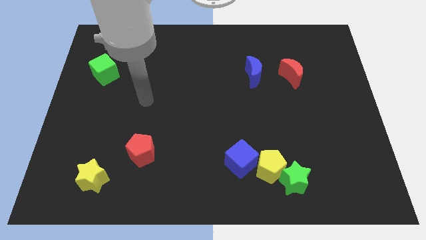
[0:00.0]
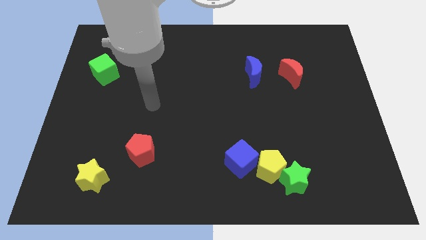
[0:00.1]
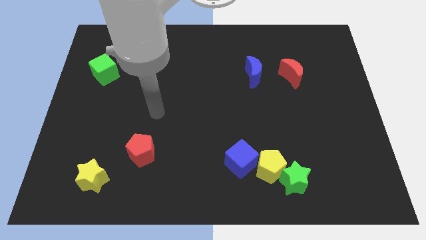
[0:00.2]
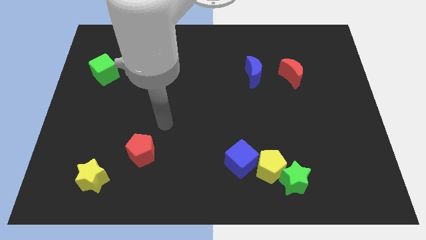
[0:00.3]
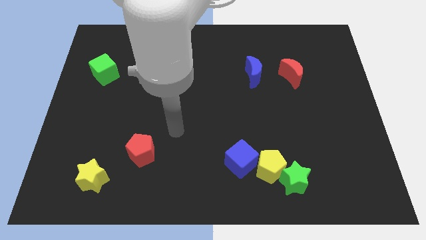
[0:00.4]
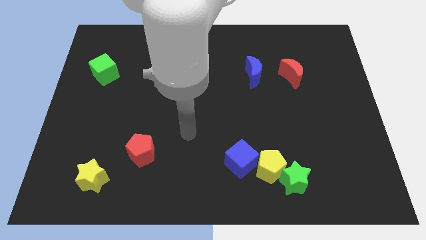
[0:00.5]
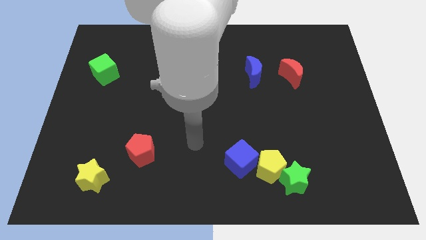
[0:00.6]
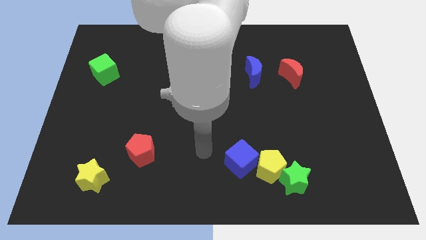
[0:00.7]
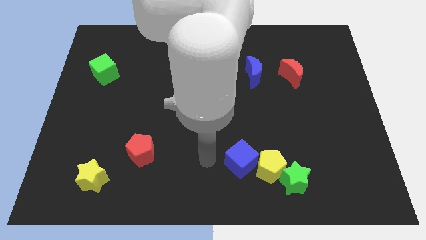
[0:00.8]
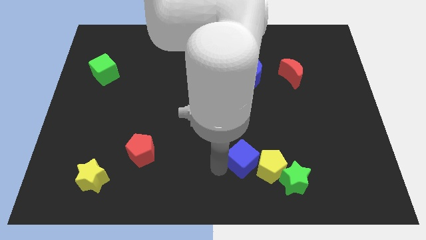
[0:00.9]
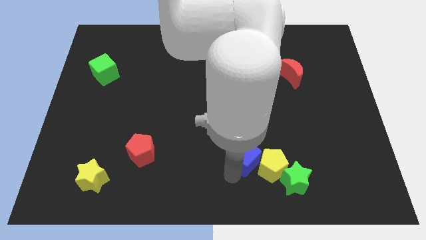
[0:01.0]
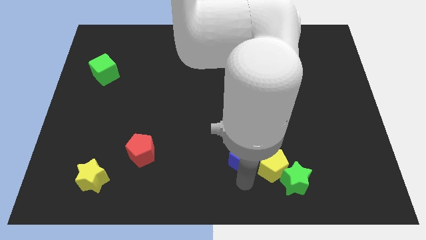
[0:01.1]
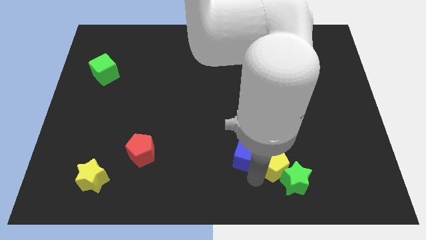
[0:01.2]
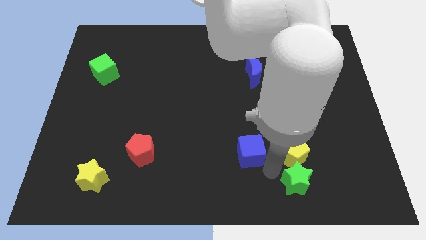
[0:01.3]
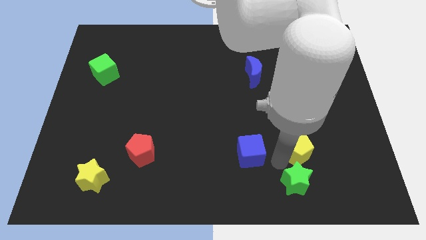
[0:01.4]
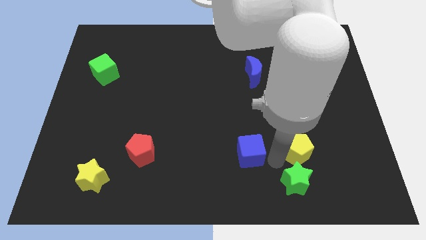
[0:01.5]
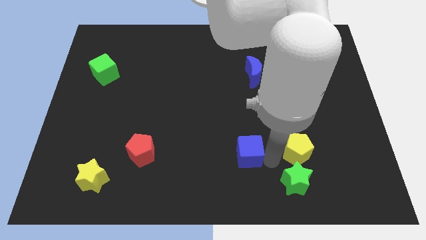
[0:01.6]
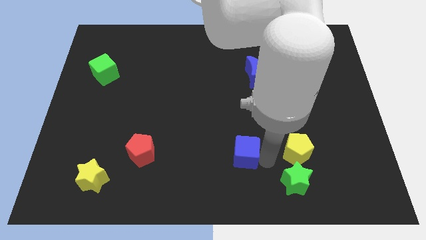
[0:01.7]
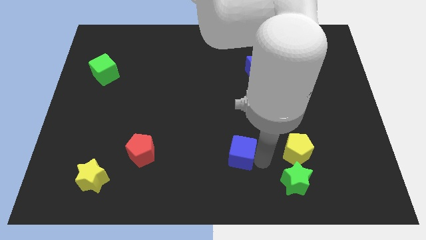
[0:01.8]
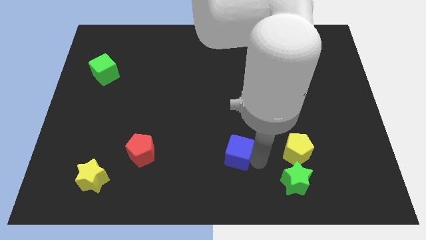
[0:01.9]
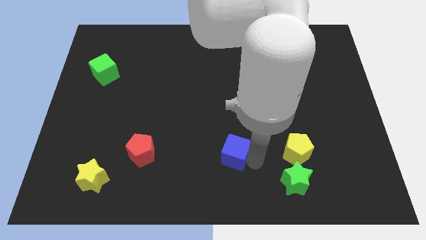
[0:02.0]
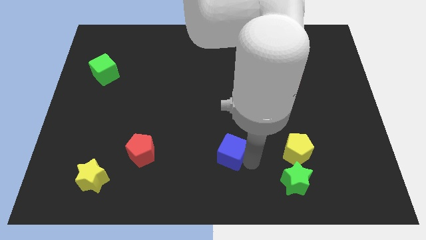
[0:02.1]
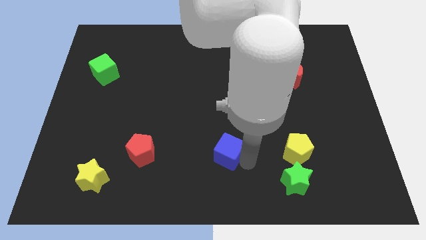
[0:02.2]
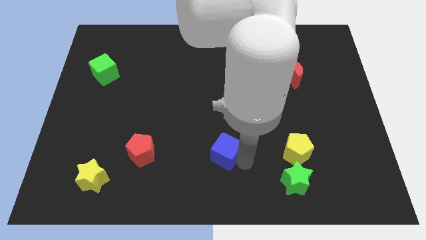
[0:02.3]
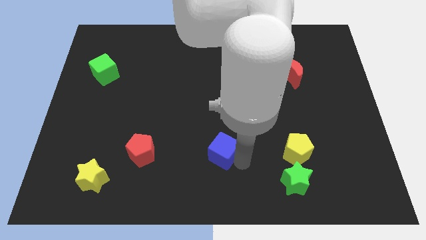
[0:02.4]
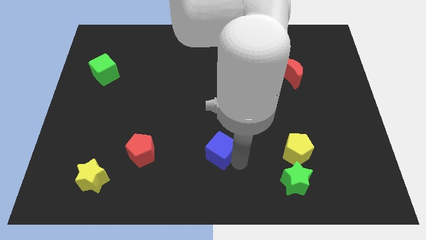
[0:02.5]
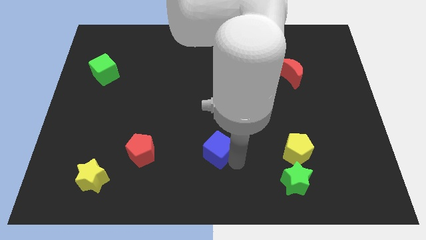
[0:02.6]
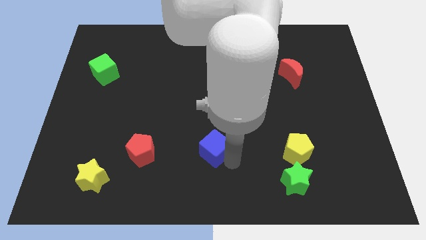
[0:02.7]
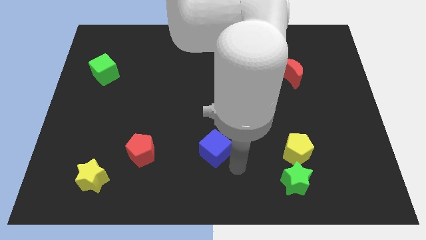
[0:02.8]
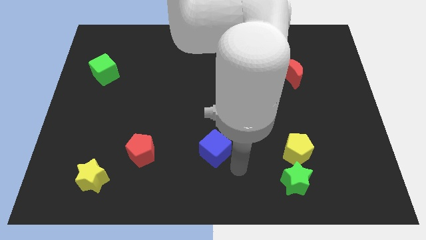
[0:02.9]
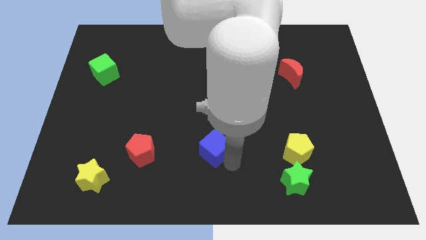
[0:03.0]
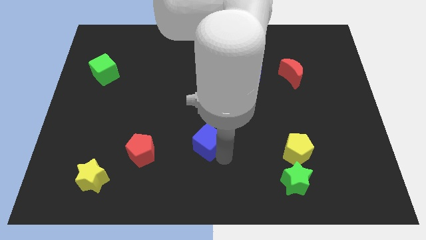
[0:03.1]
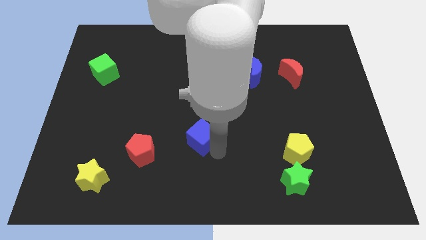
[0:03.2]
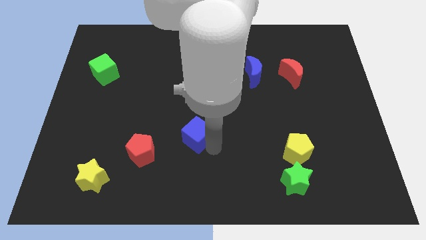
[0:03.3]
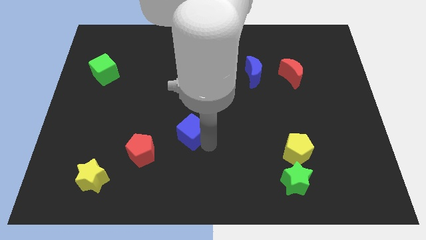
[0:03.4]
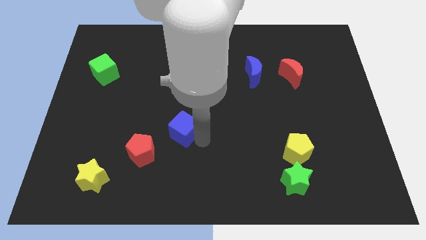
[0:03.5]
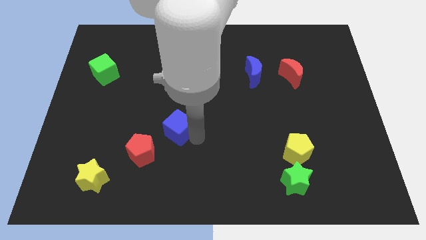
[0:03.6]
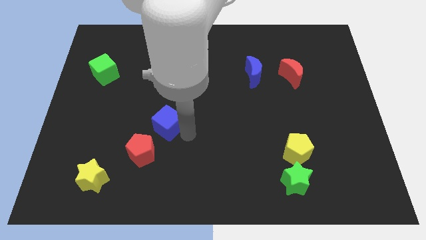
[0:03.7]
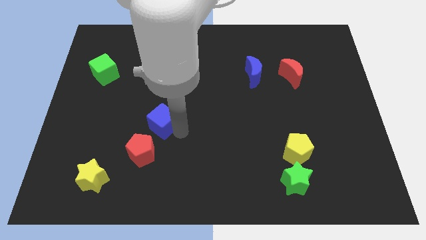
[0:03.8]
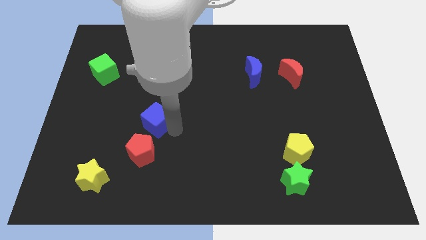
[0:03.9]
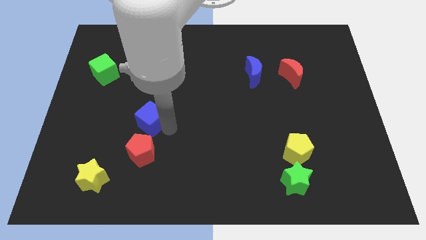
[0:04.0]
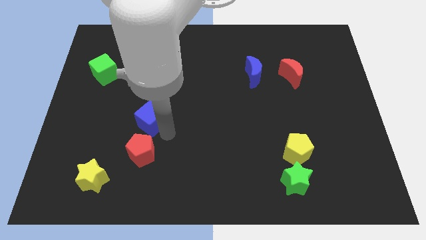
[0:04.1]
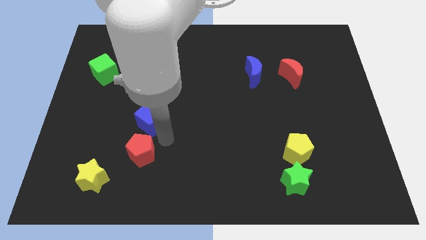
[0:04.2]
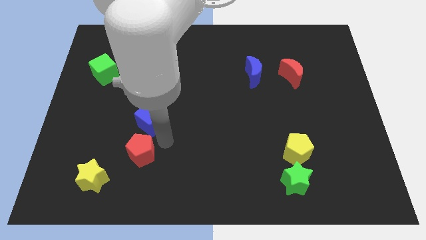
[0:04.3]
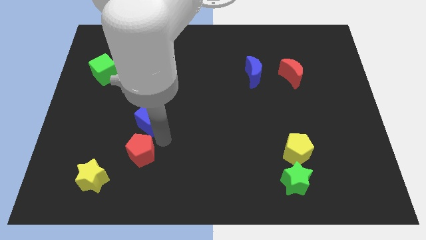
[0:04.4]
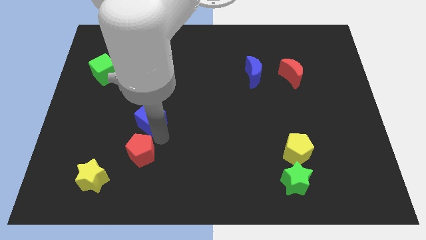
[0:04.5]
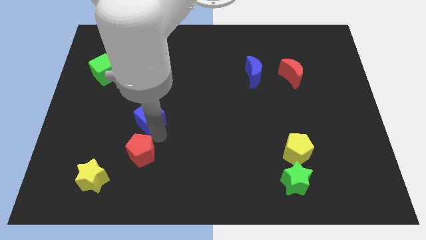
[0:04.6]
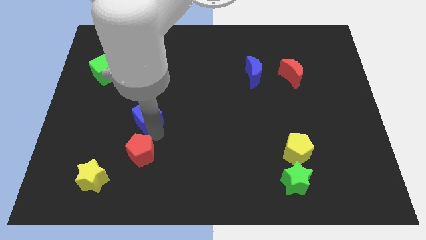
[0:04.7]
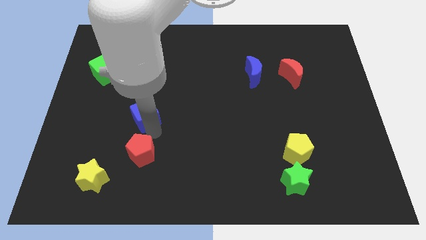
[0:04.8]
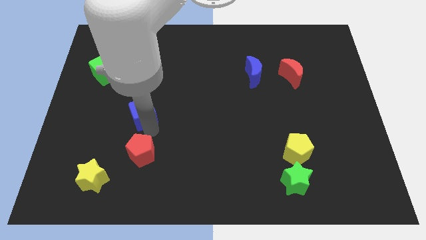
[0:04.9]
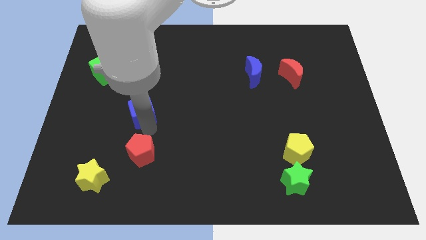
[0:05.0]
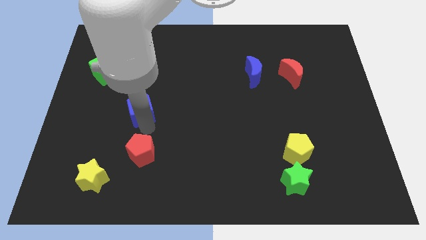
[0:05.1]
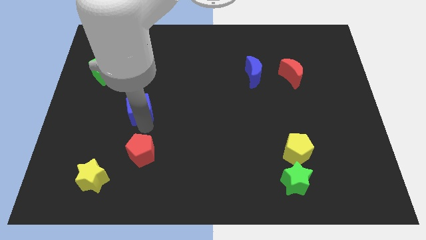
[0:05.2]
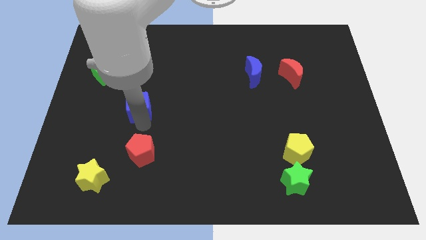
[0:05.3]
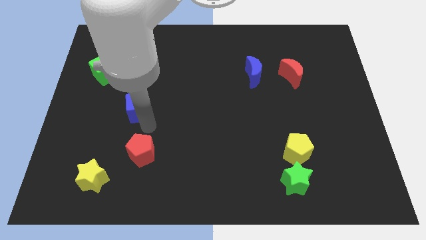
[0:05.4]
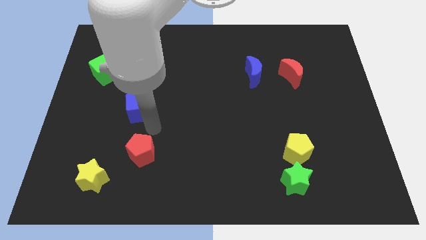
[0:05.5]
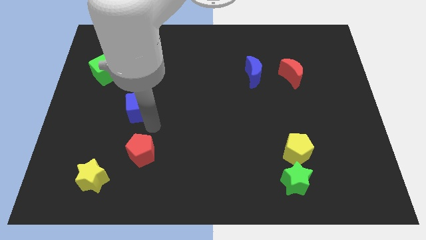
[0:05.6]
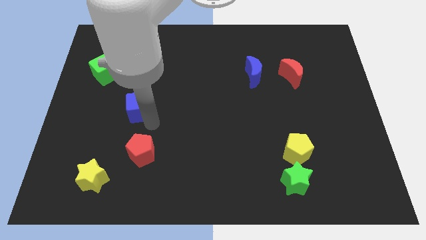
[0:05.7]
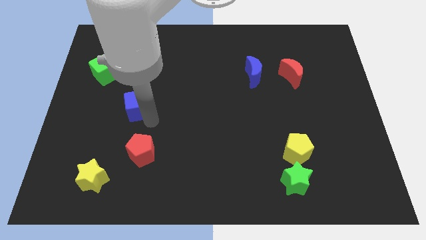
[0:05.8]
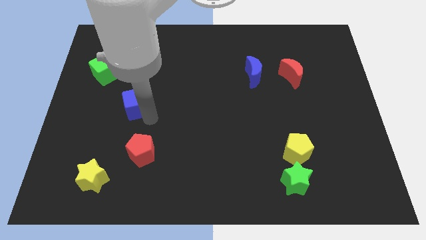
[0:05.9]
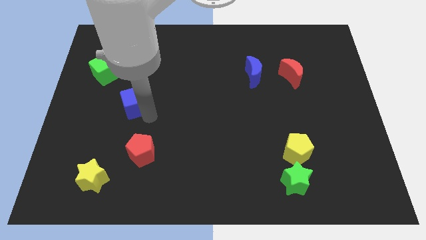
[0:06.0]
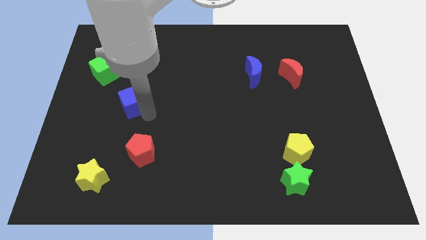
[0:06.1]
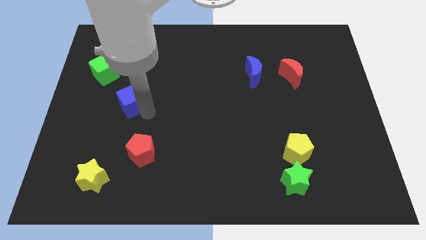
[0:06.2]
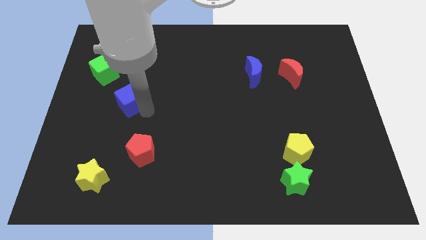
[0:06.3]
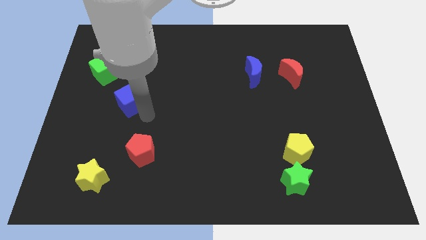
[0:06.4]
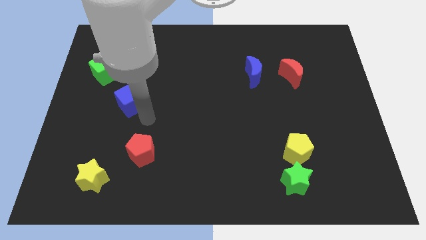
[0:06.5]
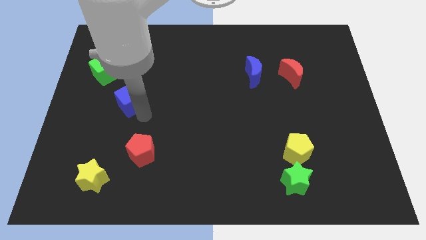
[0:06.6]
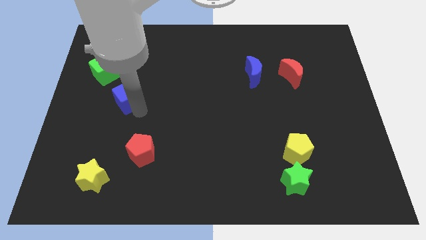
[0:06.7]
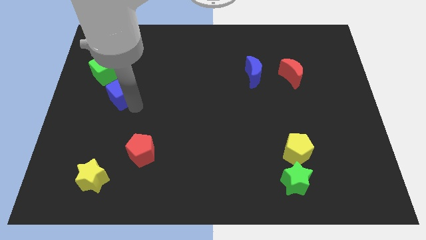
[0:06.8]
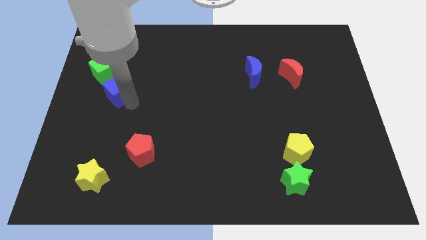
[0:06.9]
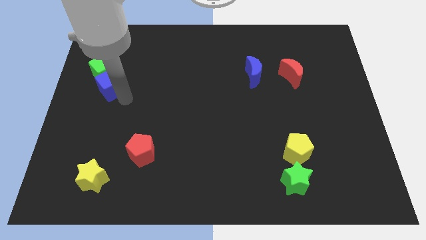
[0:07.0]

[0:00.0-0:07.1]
move the blue cube to the green cube
